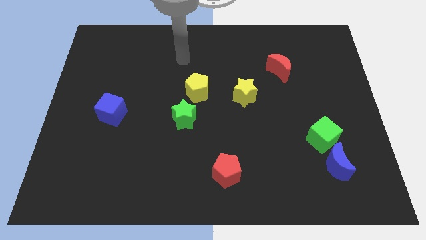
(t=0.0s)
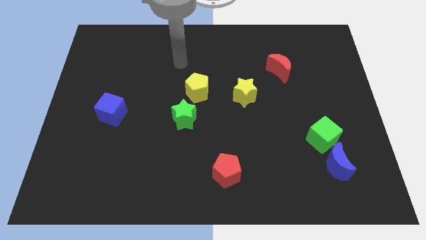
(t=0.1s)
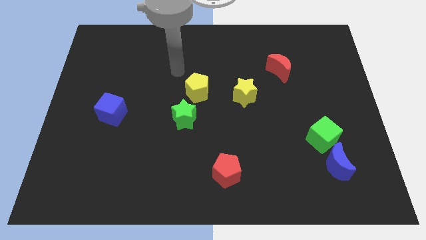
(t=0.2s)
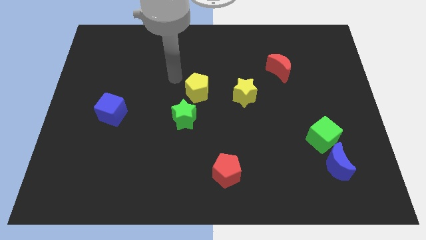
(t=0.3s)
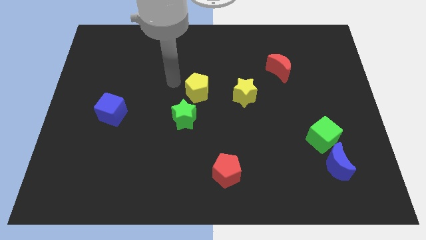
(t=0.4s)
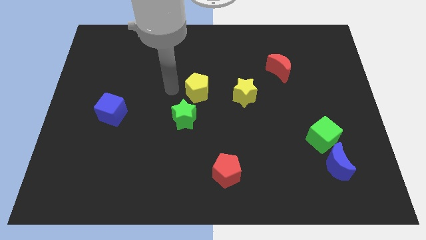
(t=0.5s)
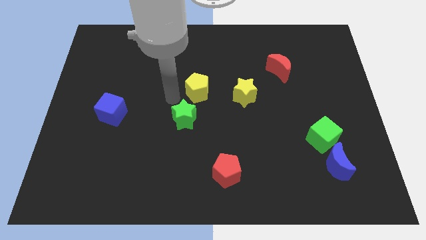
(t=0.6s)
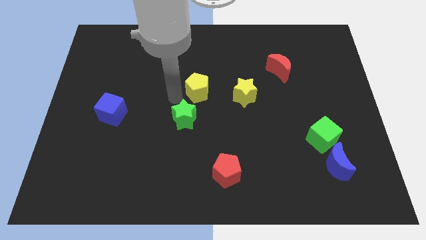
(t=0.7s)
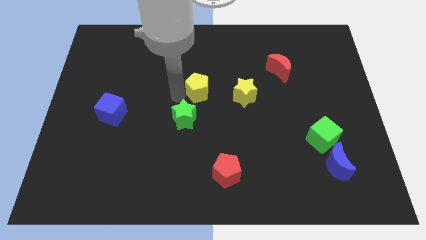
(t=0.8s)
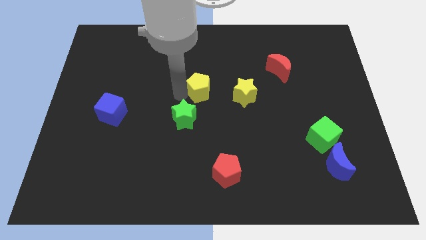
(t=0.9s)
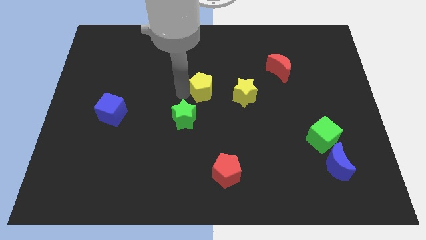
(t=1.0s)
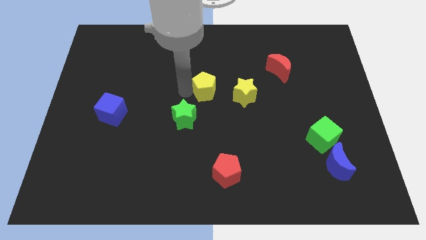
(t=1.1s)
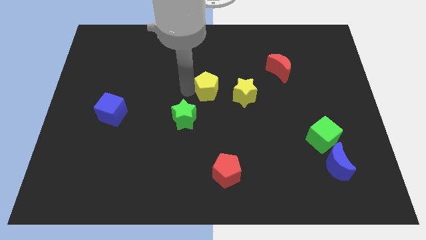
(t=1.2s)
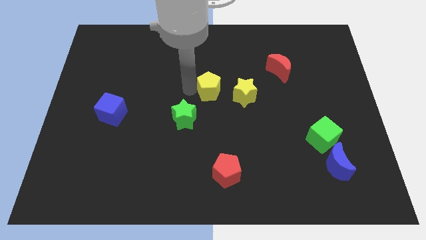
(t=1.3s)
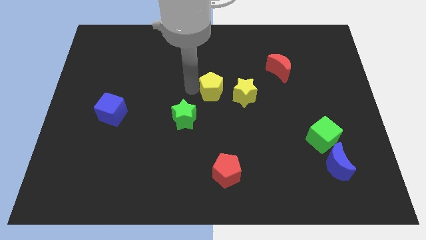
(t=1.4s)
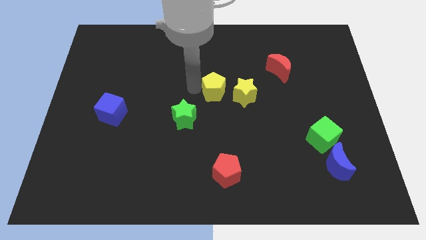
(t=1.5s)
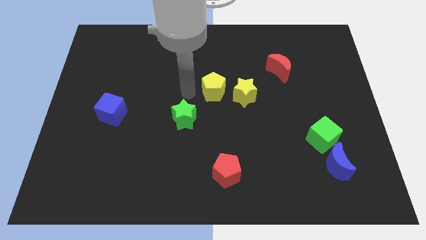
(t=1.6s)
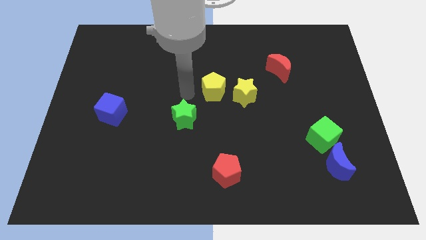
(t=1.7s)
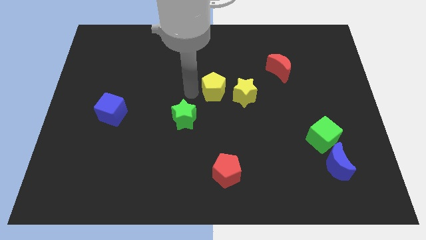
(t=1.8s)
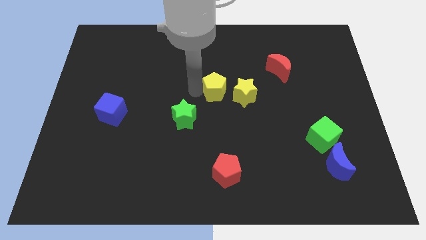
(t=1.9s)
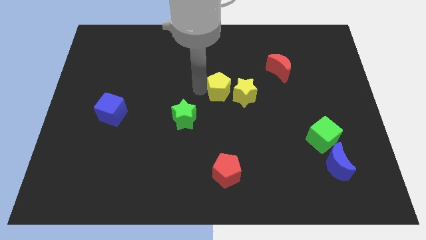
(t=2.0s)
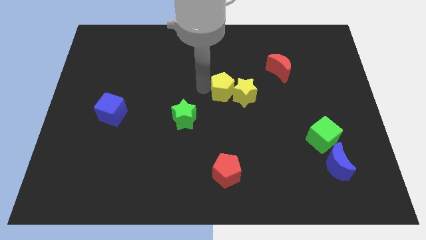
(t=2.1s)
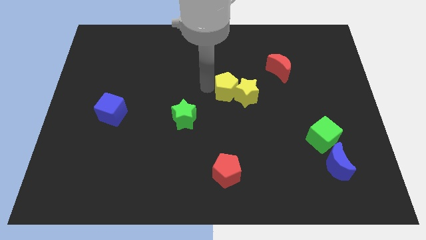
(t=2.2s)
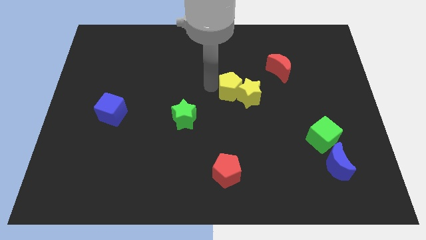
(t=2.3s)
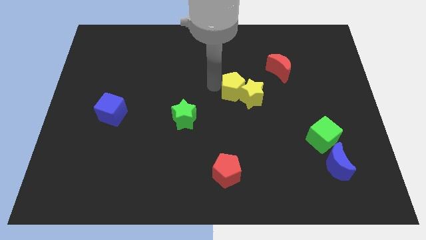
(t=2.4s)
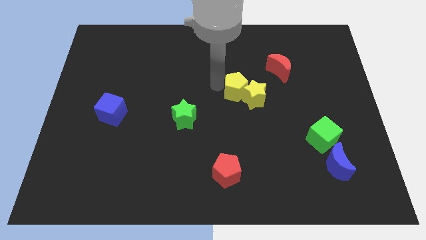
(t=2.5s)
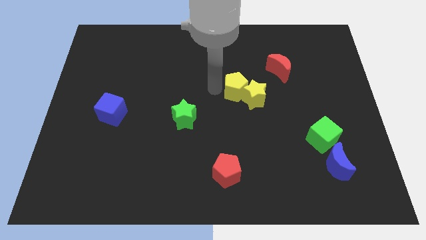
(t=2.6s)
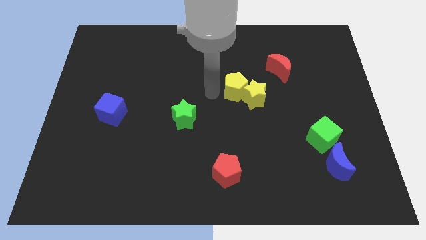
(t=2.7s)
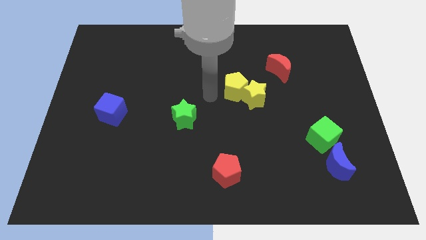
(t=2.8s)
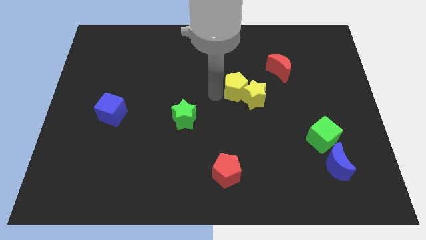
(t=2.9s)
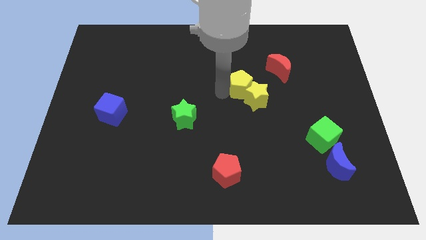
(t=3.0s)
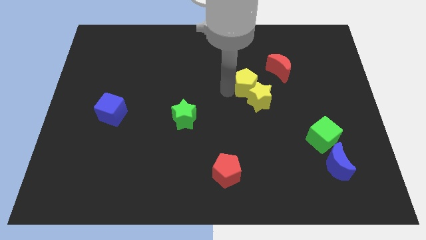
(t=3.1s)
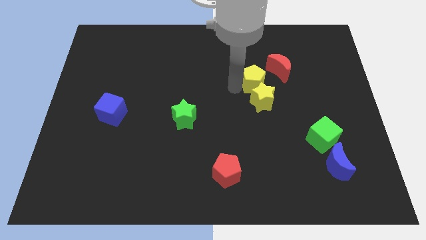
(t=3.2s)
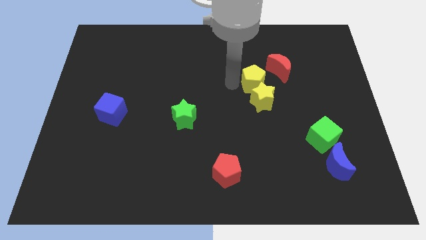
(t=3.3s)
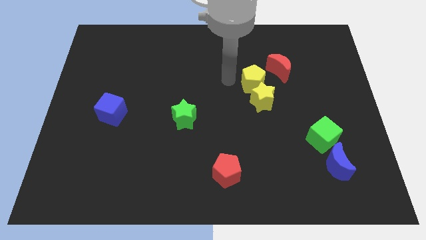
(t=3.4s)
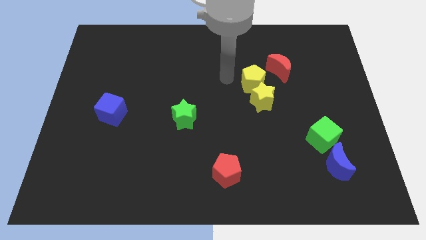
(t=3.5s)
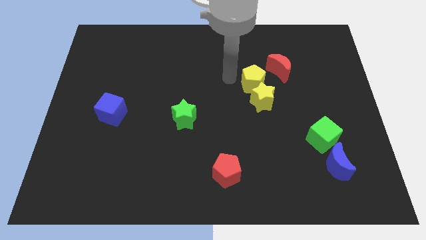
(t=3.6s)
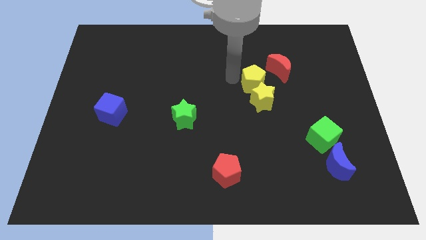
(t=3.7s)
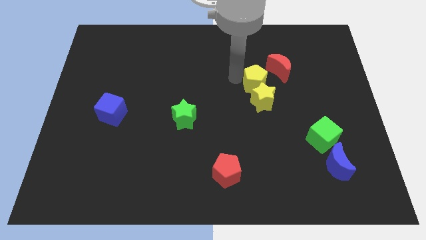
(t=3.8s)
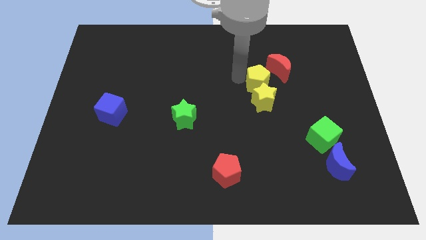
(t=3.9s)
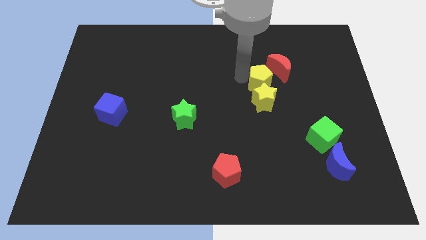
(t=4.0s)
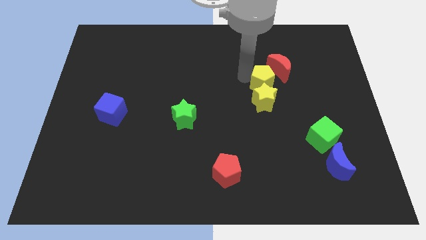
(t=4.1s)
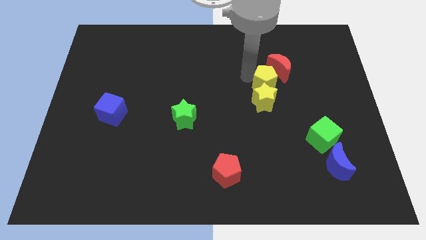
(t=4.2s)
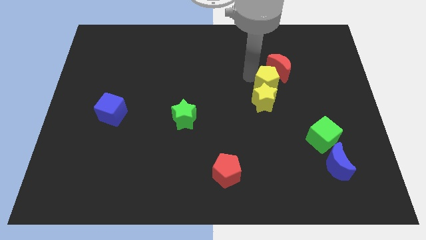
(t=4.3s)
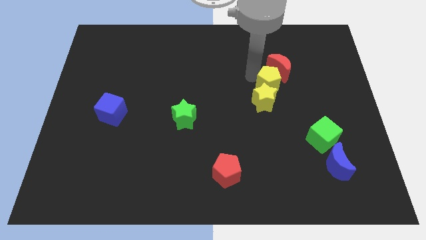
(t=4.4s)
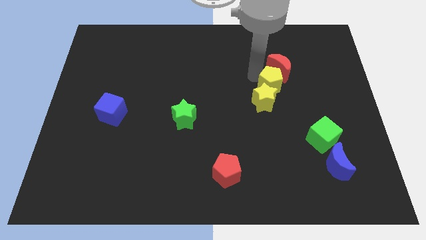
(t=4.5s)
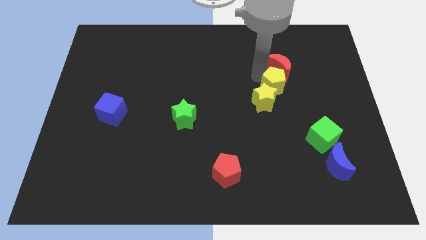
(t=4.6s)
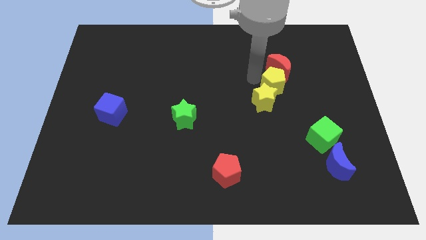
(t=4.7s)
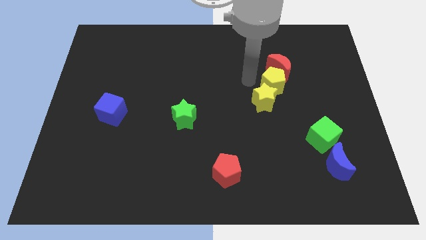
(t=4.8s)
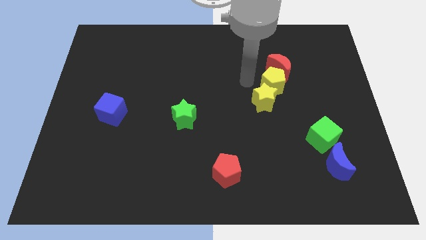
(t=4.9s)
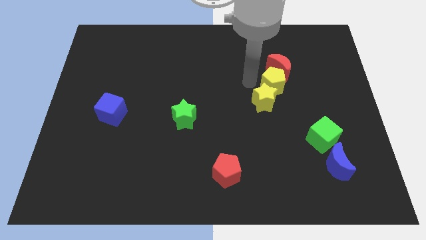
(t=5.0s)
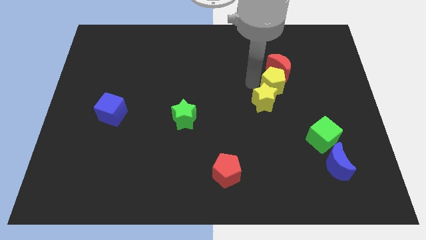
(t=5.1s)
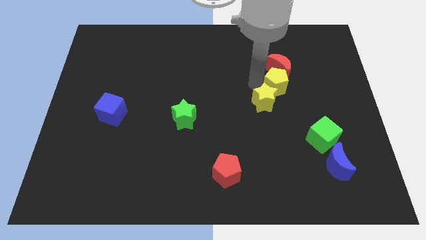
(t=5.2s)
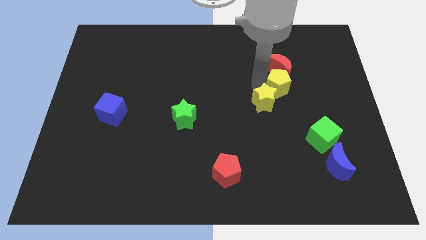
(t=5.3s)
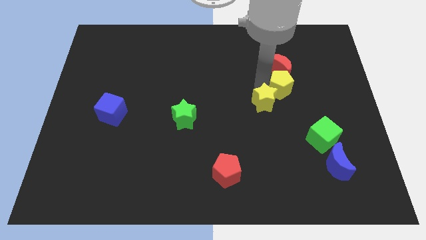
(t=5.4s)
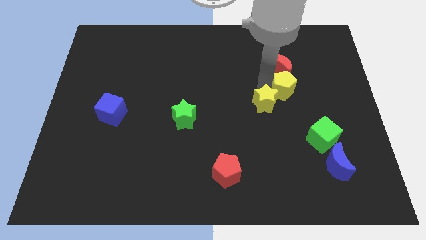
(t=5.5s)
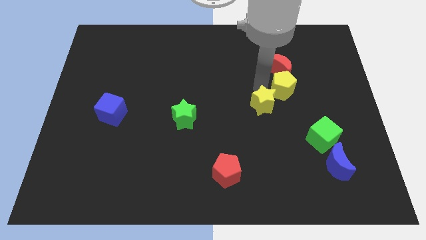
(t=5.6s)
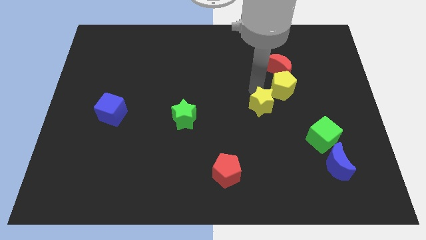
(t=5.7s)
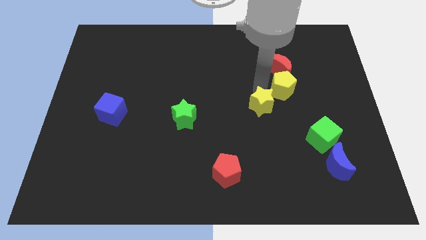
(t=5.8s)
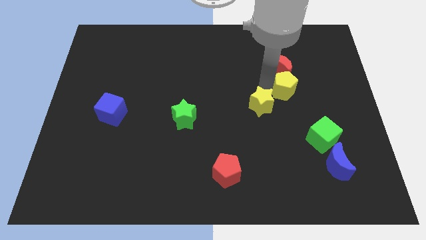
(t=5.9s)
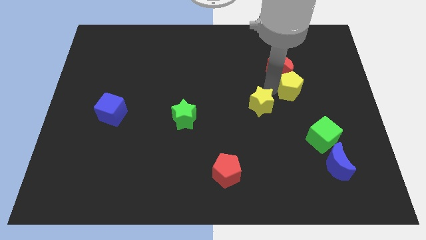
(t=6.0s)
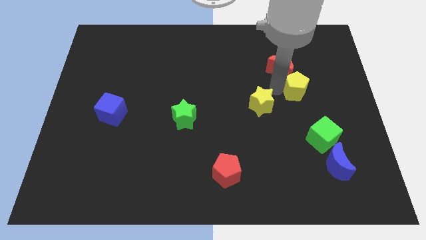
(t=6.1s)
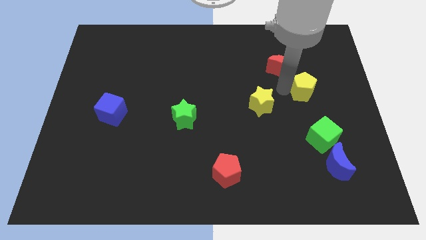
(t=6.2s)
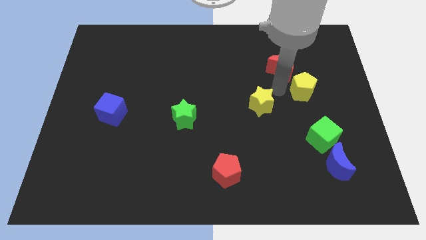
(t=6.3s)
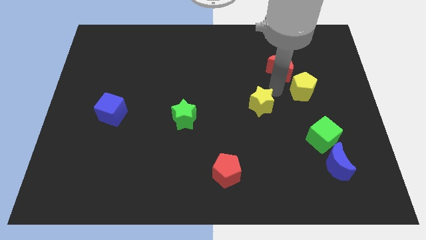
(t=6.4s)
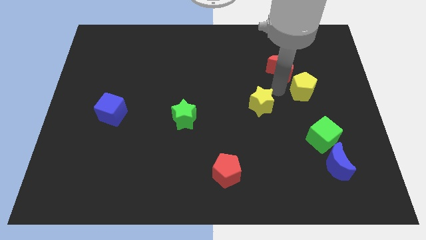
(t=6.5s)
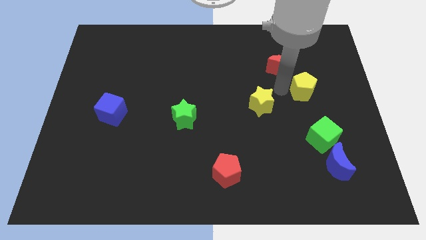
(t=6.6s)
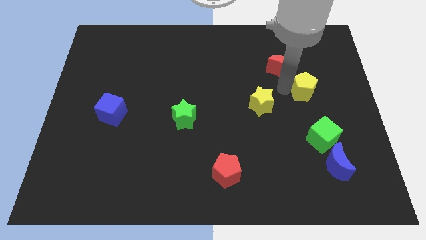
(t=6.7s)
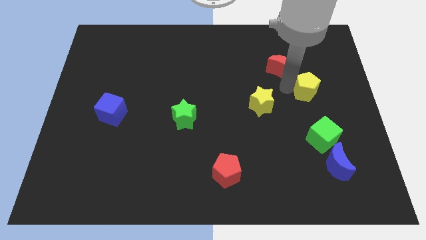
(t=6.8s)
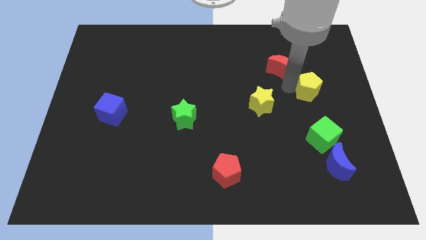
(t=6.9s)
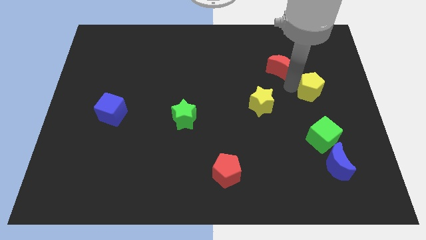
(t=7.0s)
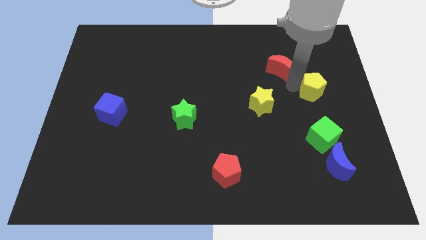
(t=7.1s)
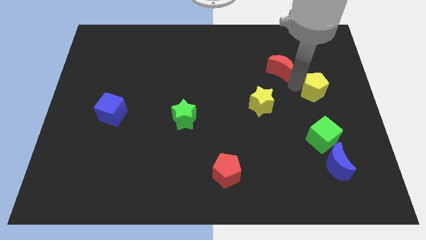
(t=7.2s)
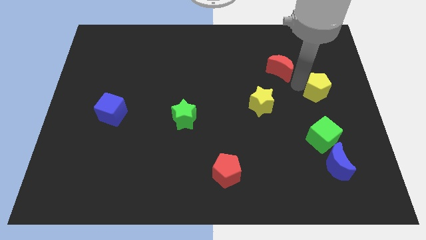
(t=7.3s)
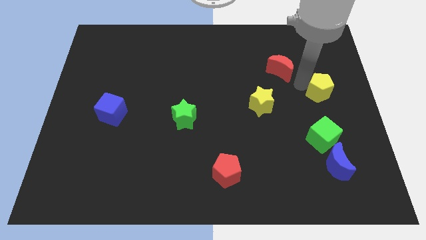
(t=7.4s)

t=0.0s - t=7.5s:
put the yellow pentagon to the center right
